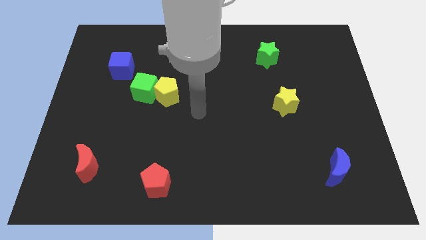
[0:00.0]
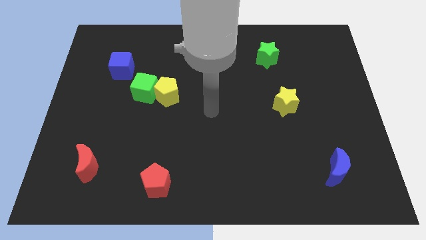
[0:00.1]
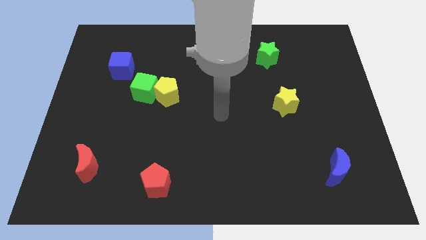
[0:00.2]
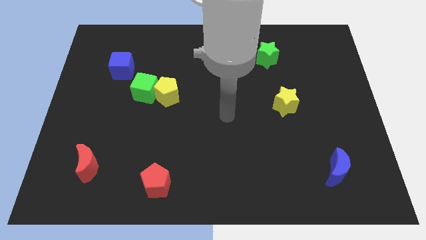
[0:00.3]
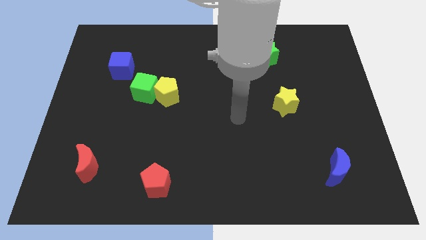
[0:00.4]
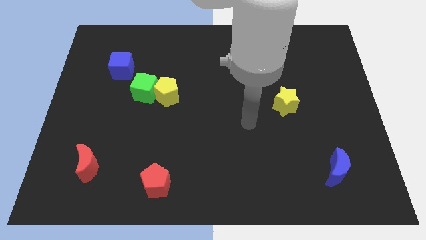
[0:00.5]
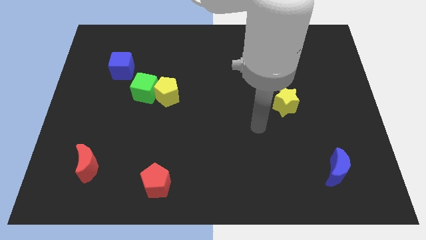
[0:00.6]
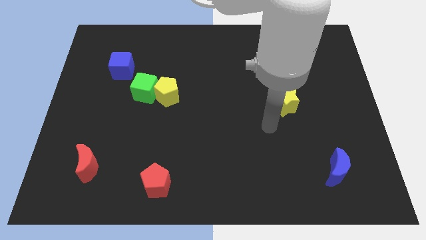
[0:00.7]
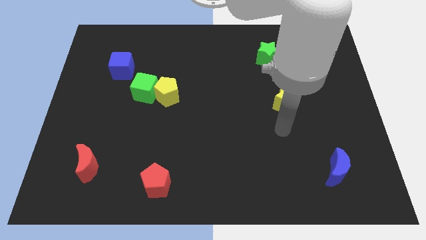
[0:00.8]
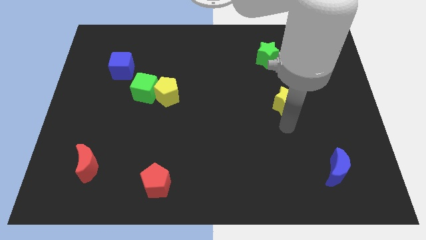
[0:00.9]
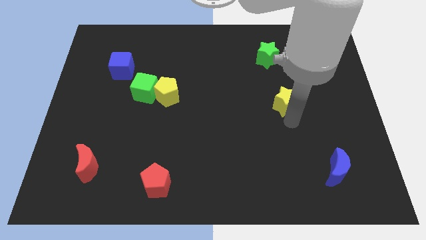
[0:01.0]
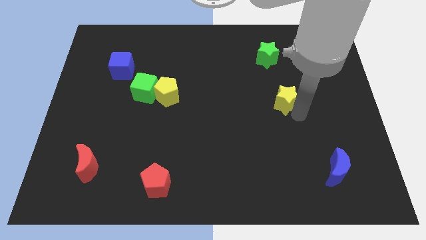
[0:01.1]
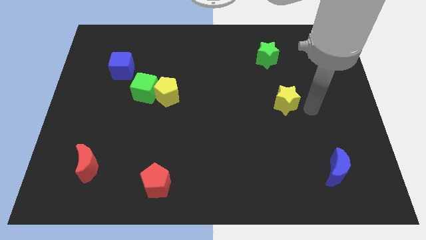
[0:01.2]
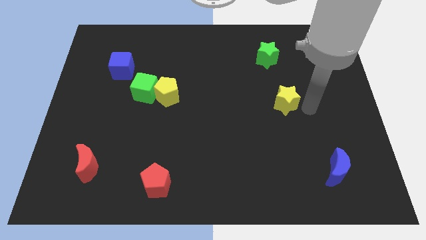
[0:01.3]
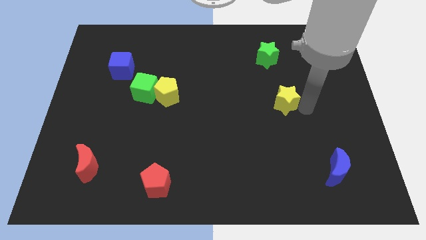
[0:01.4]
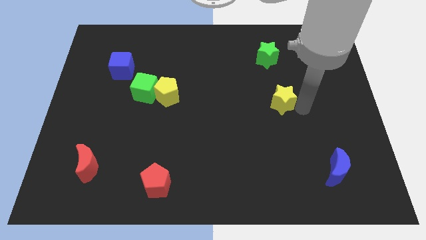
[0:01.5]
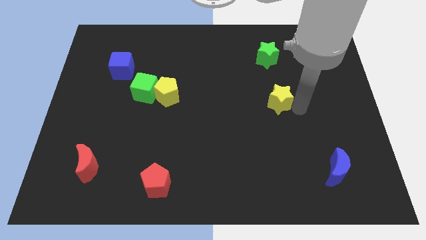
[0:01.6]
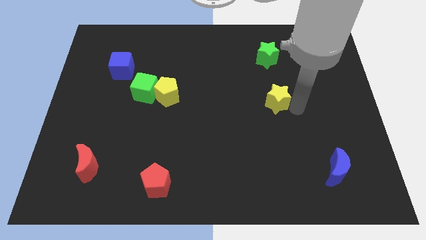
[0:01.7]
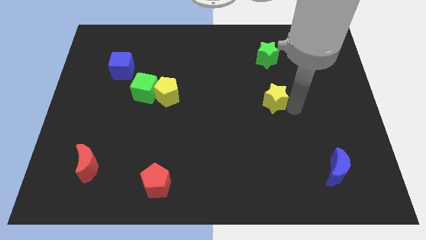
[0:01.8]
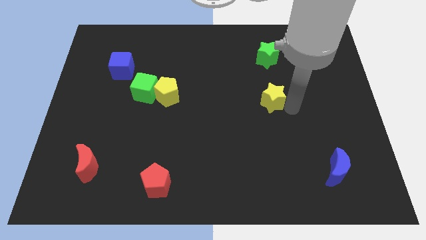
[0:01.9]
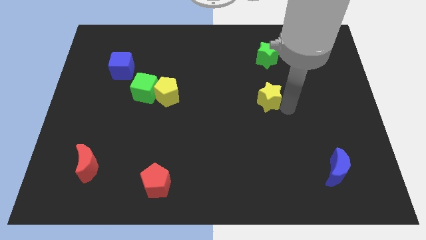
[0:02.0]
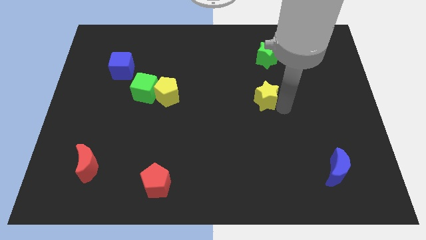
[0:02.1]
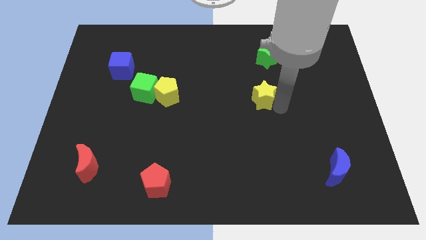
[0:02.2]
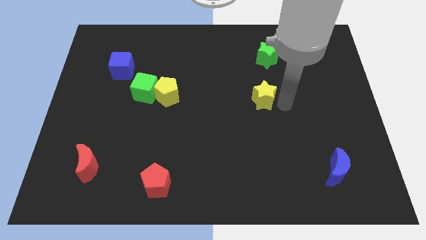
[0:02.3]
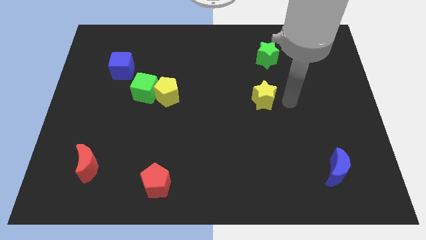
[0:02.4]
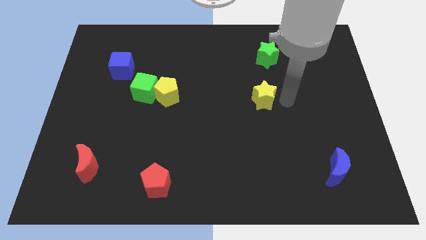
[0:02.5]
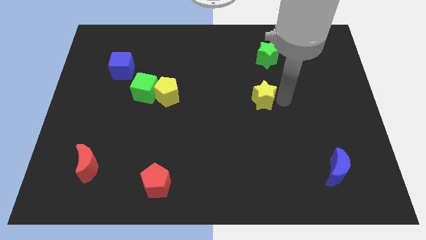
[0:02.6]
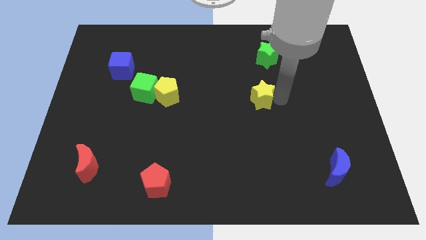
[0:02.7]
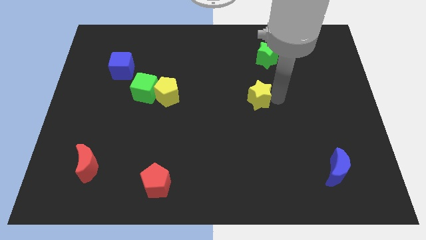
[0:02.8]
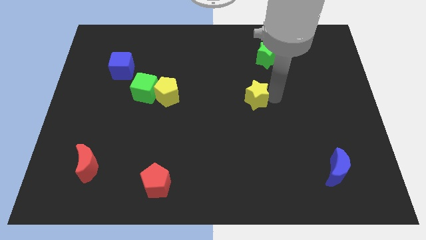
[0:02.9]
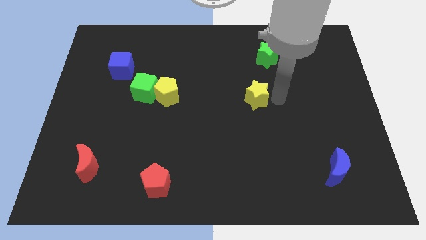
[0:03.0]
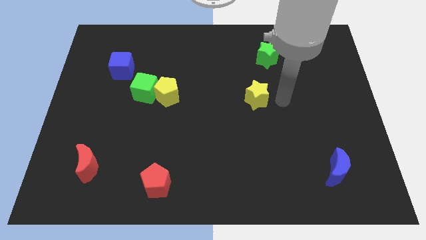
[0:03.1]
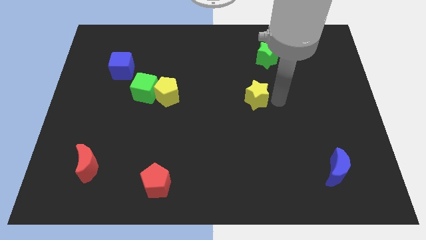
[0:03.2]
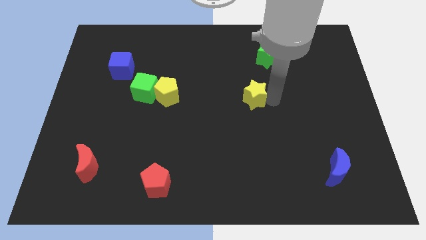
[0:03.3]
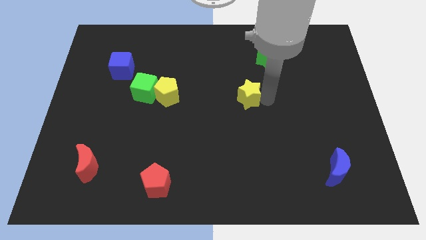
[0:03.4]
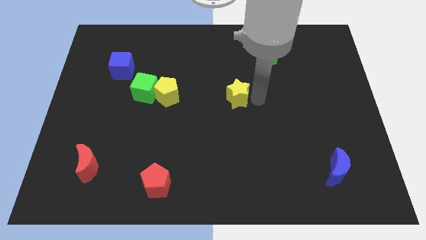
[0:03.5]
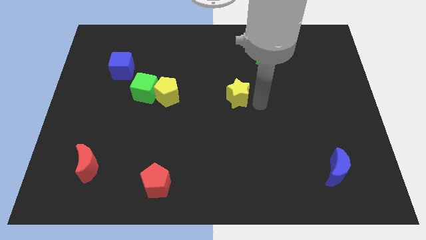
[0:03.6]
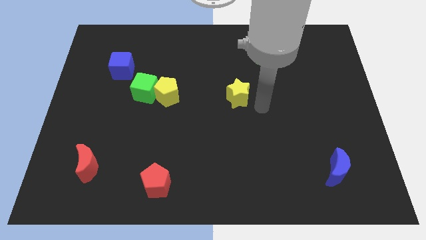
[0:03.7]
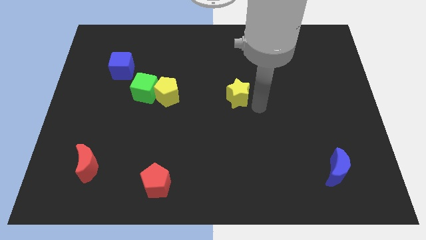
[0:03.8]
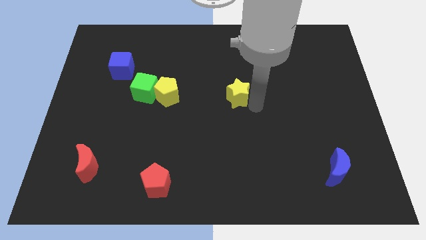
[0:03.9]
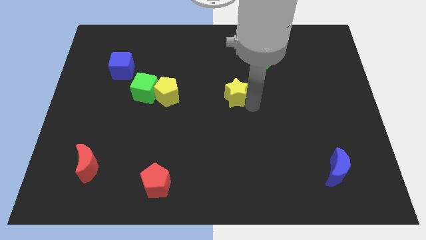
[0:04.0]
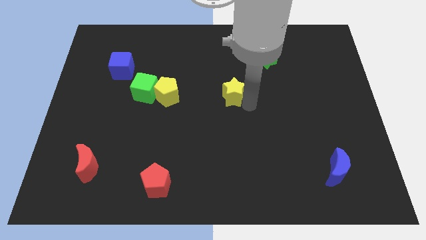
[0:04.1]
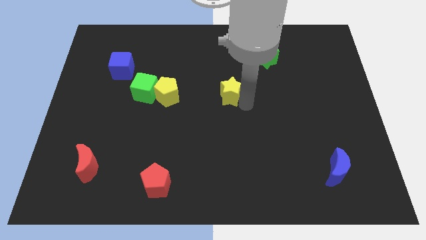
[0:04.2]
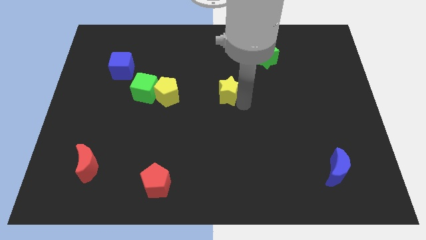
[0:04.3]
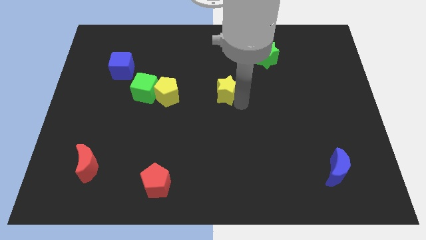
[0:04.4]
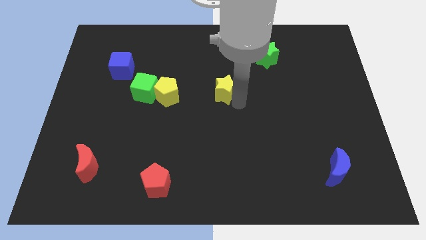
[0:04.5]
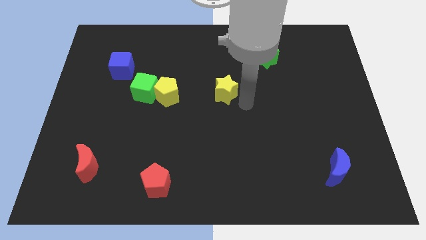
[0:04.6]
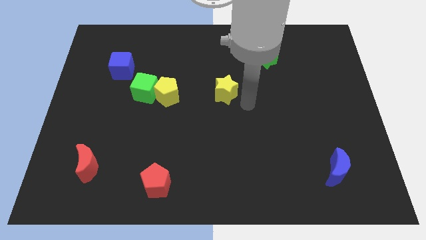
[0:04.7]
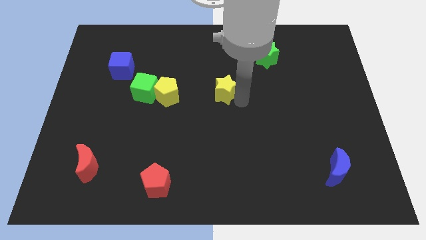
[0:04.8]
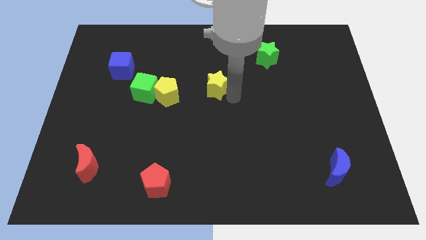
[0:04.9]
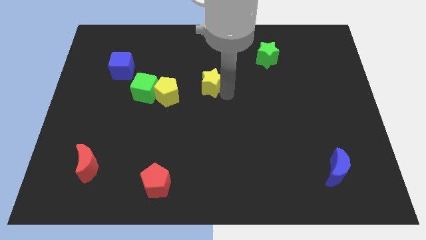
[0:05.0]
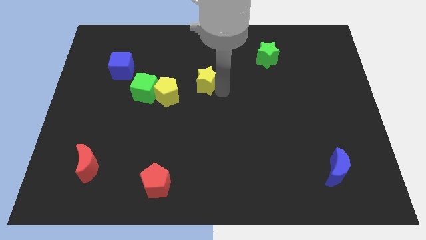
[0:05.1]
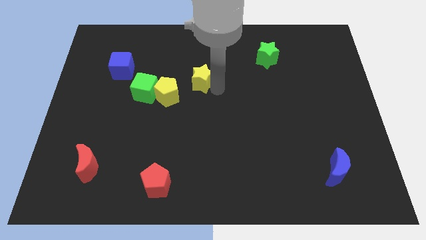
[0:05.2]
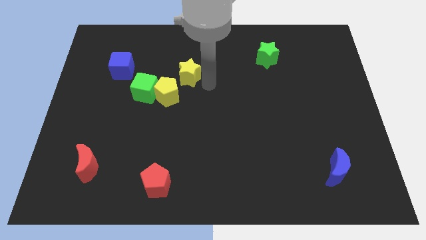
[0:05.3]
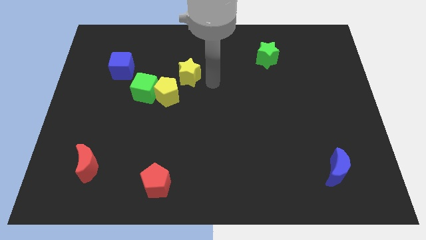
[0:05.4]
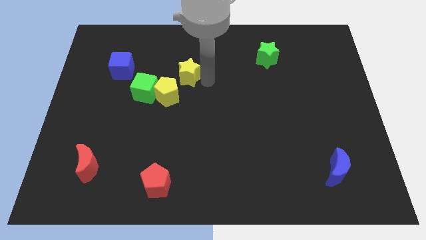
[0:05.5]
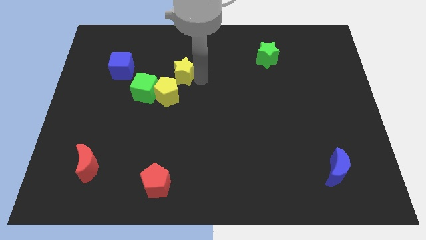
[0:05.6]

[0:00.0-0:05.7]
move the yellow star to the right of the blue cube

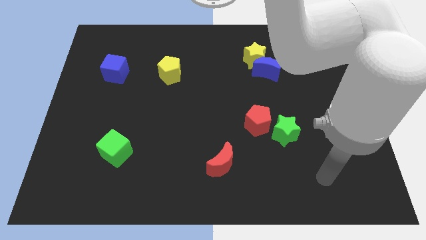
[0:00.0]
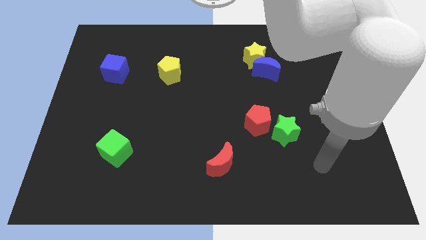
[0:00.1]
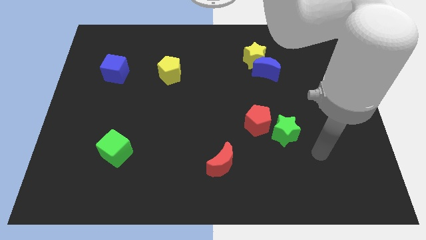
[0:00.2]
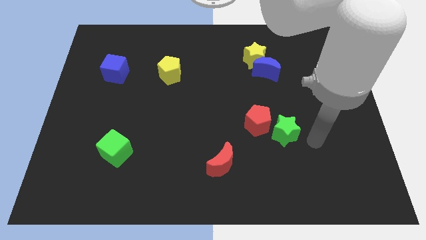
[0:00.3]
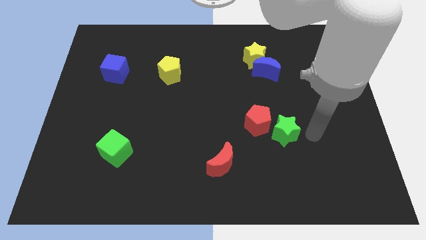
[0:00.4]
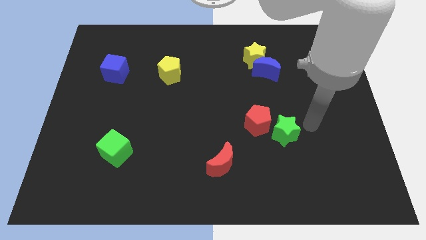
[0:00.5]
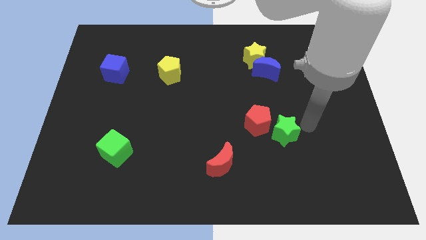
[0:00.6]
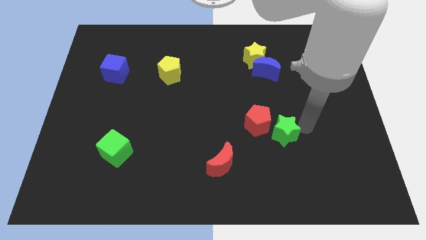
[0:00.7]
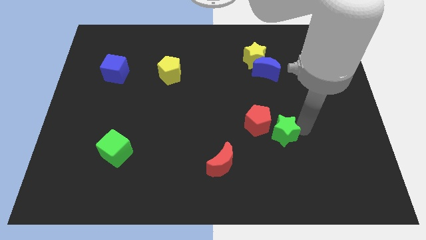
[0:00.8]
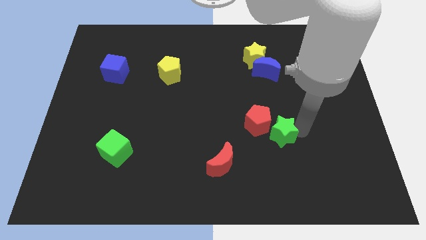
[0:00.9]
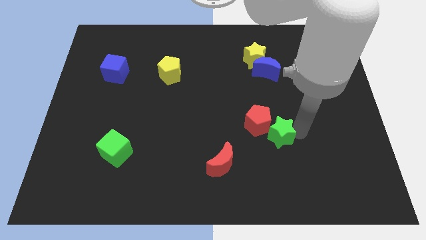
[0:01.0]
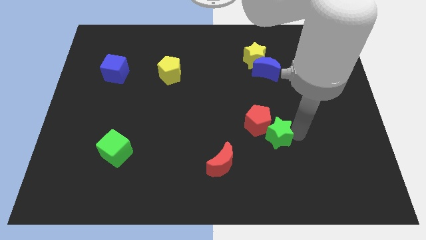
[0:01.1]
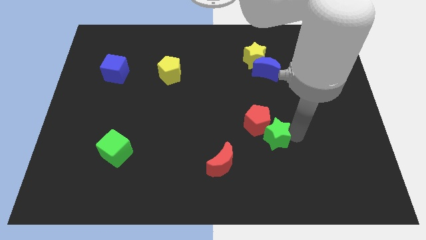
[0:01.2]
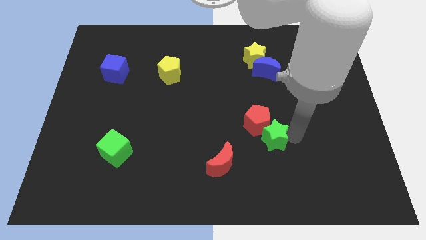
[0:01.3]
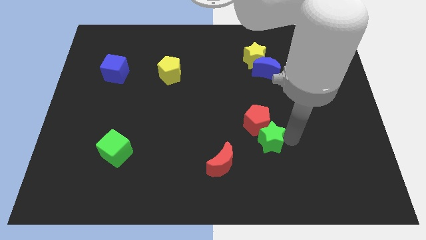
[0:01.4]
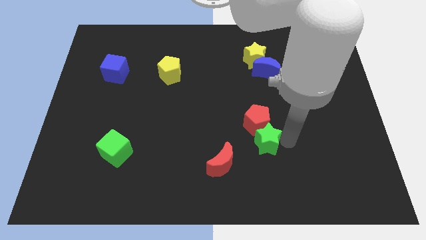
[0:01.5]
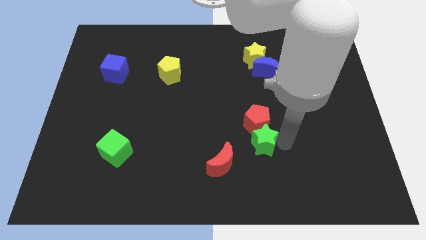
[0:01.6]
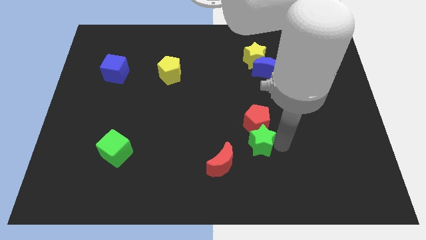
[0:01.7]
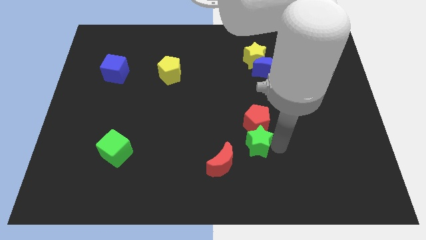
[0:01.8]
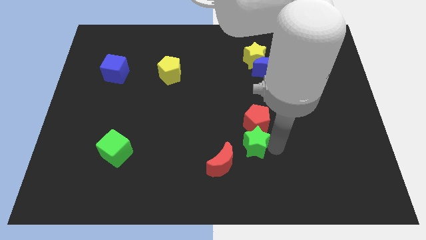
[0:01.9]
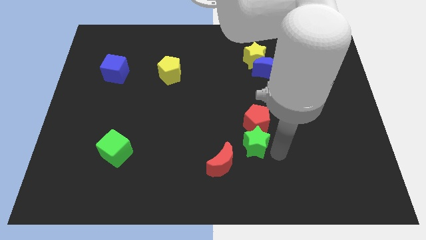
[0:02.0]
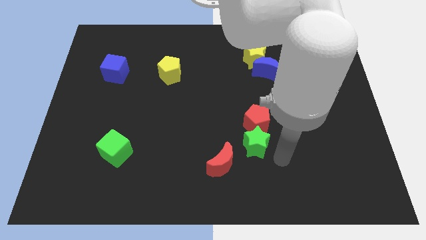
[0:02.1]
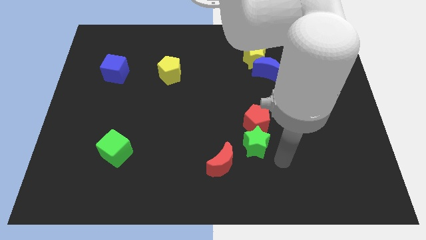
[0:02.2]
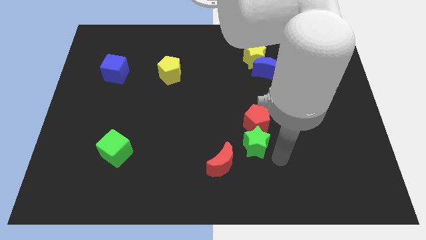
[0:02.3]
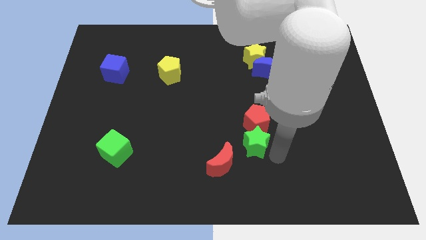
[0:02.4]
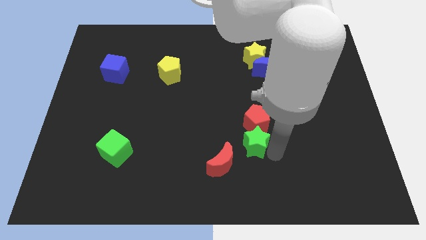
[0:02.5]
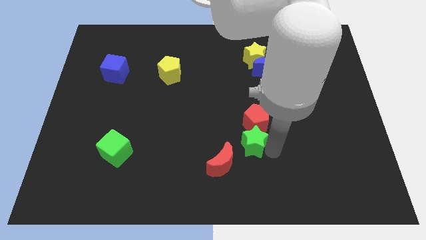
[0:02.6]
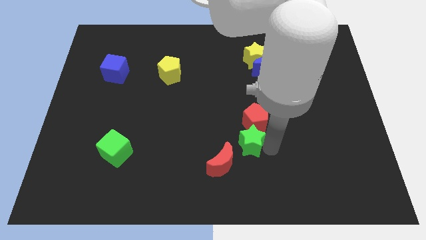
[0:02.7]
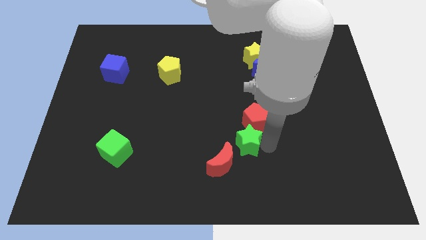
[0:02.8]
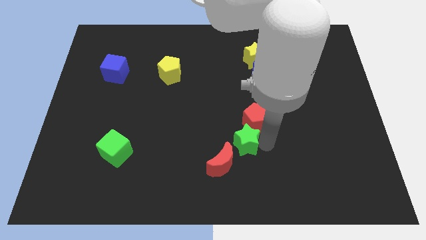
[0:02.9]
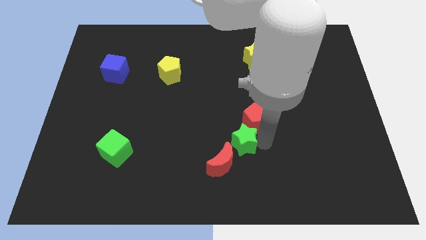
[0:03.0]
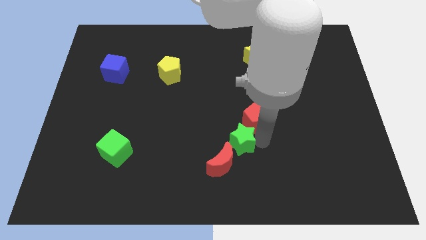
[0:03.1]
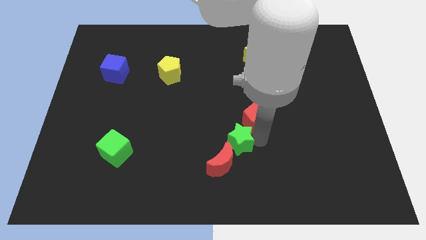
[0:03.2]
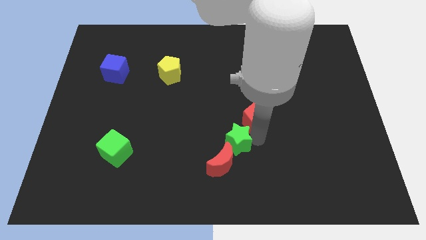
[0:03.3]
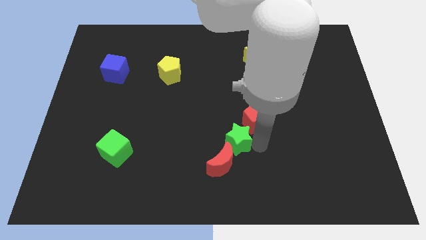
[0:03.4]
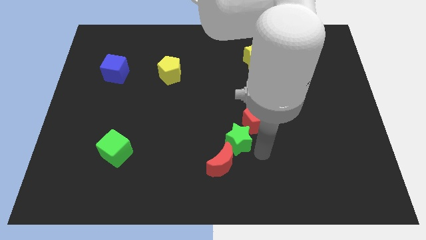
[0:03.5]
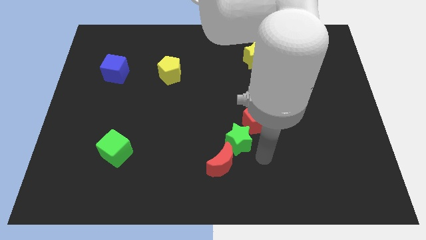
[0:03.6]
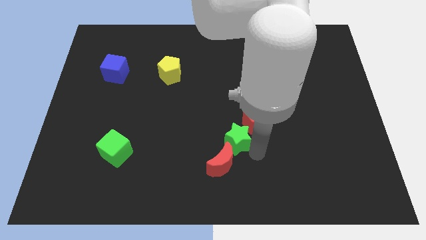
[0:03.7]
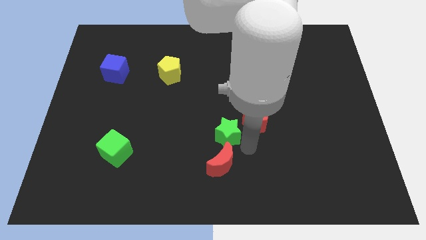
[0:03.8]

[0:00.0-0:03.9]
push the green star to the left of the red pentagon
